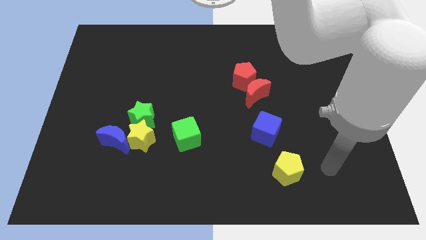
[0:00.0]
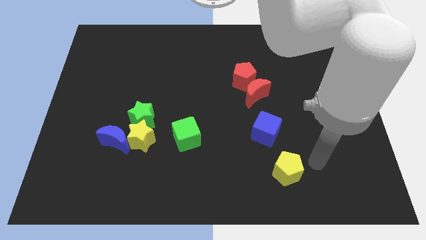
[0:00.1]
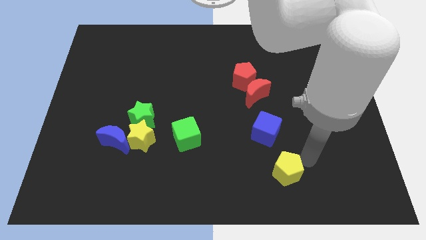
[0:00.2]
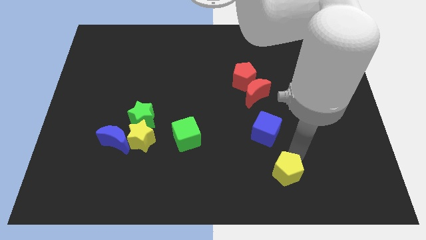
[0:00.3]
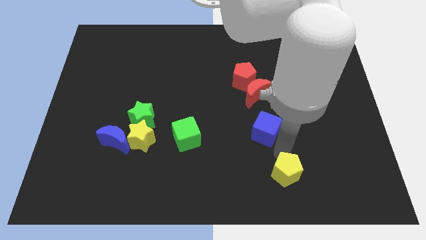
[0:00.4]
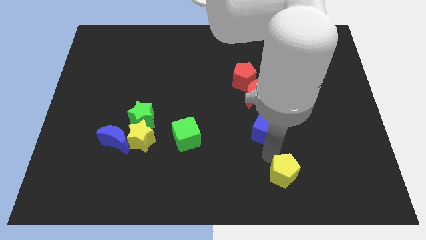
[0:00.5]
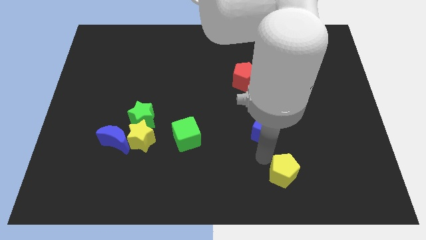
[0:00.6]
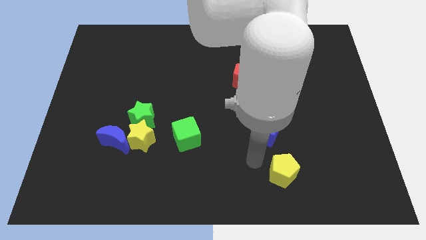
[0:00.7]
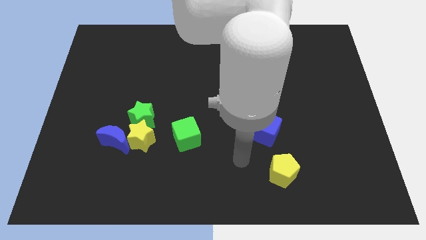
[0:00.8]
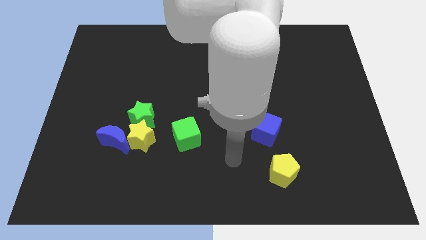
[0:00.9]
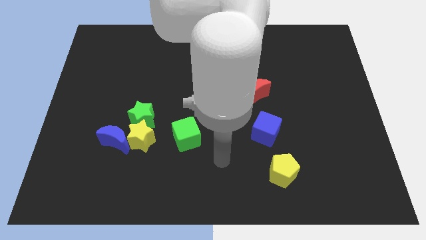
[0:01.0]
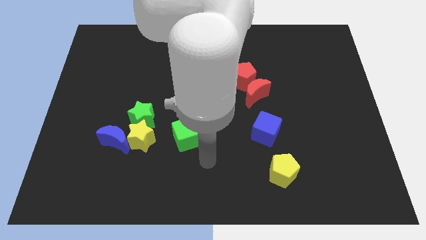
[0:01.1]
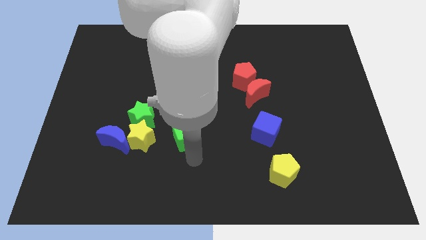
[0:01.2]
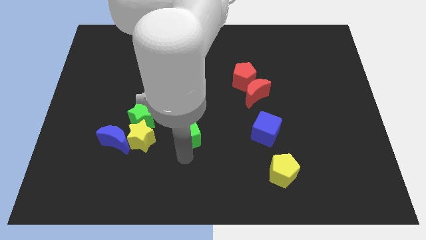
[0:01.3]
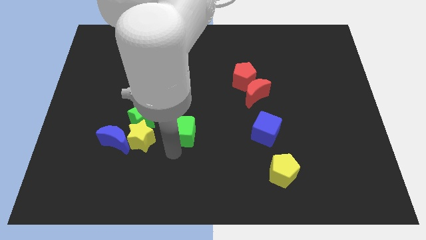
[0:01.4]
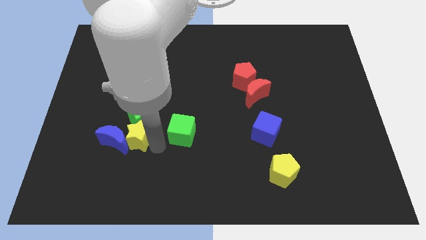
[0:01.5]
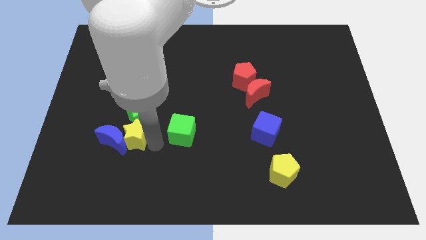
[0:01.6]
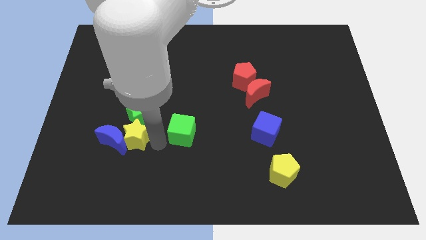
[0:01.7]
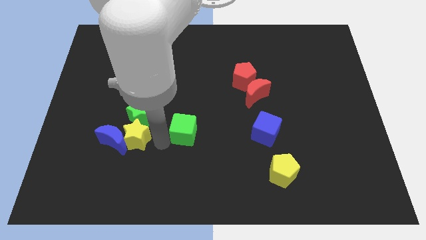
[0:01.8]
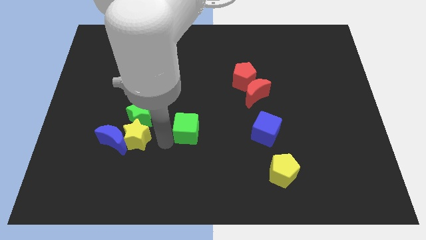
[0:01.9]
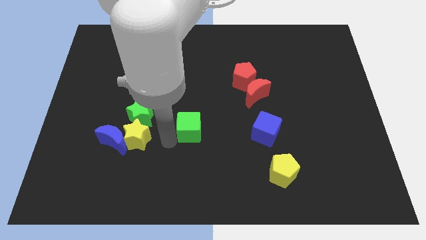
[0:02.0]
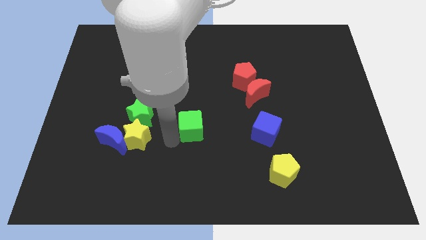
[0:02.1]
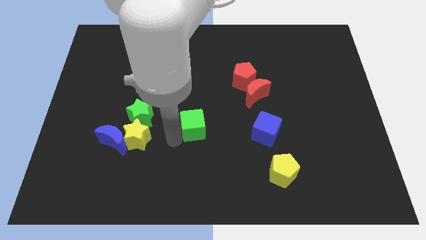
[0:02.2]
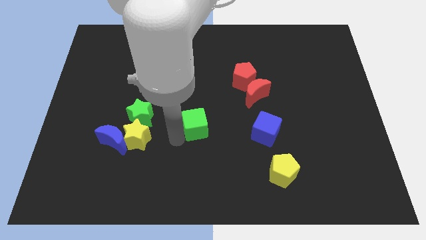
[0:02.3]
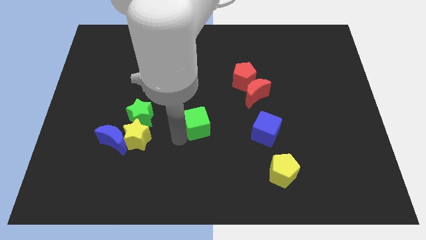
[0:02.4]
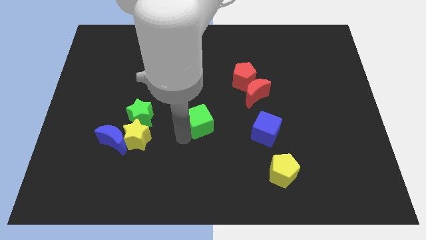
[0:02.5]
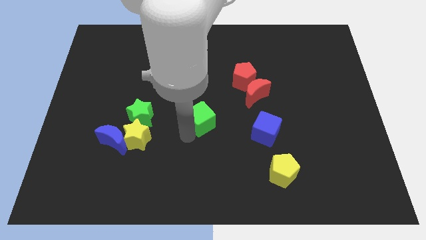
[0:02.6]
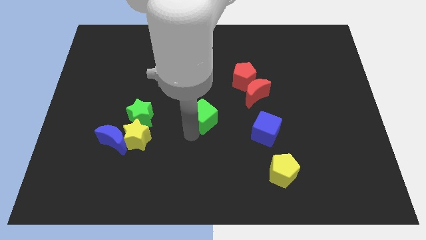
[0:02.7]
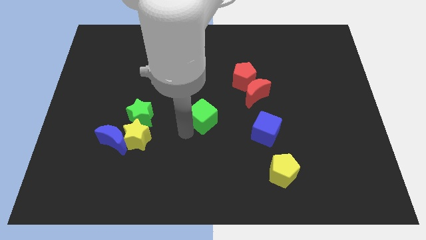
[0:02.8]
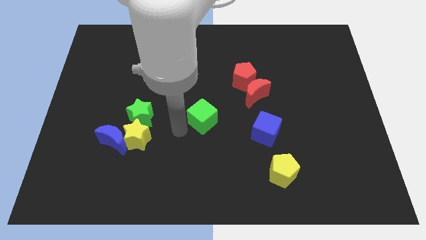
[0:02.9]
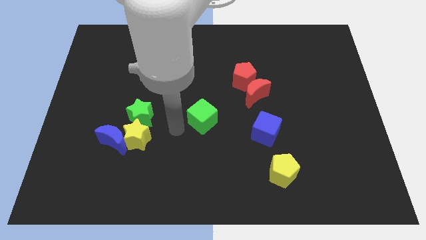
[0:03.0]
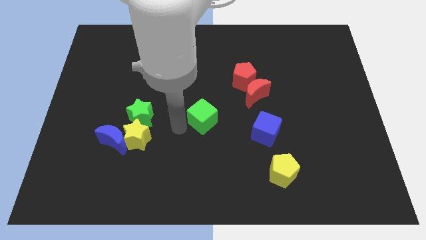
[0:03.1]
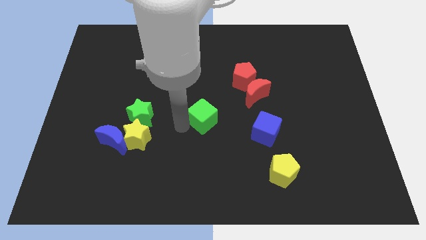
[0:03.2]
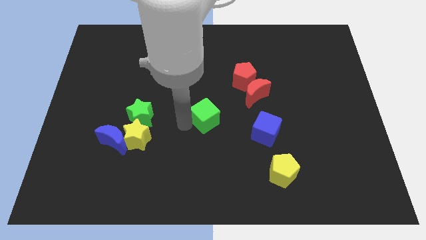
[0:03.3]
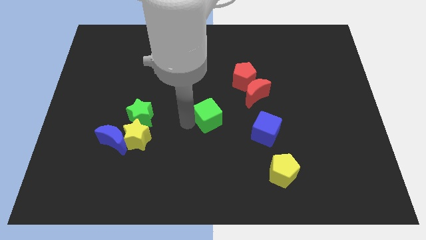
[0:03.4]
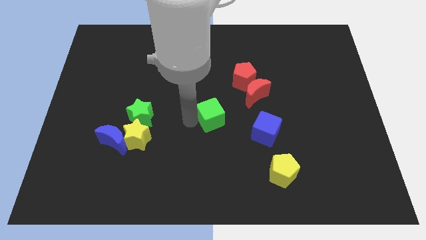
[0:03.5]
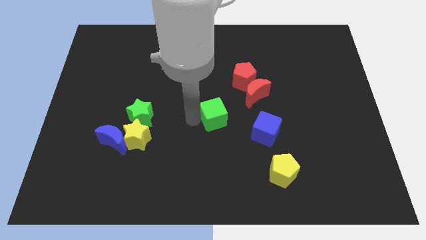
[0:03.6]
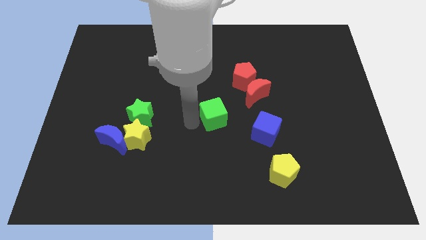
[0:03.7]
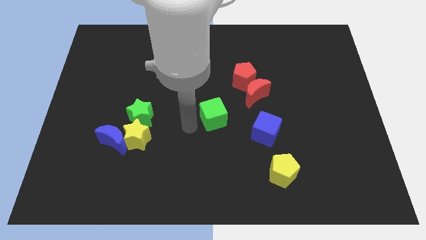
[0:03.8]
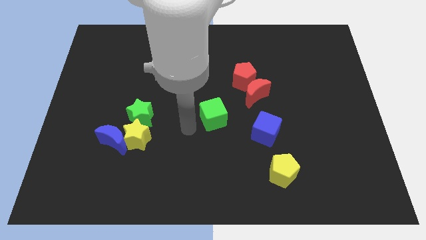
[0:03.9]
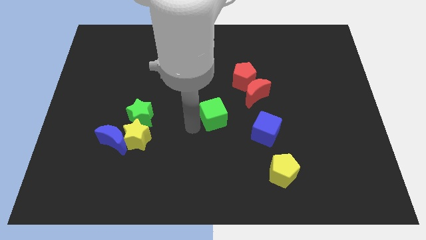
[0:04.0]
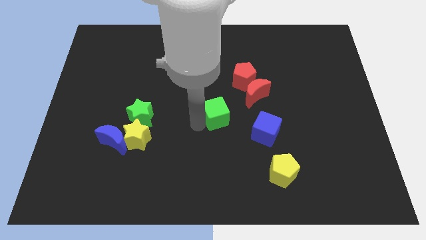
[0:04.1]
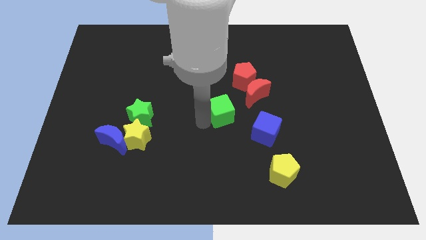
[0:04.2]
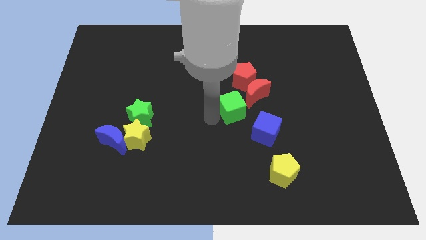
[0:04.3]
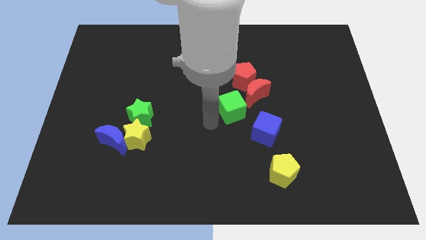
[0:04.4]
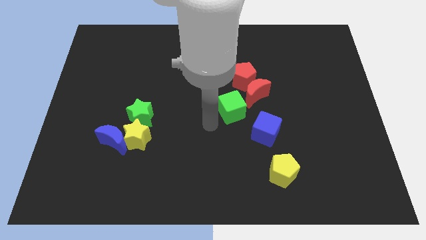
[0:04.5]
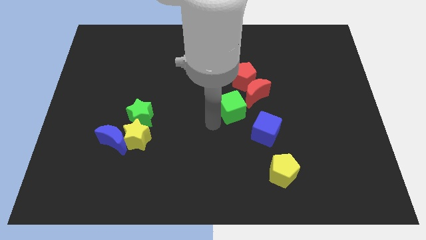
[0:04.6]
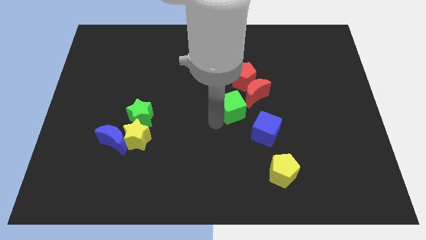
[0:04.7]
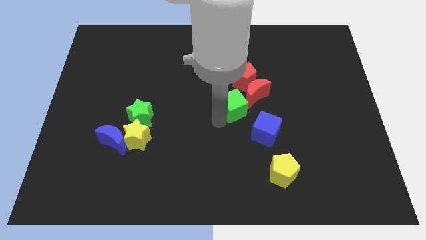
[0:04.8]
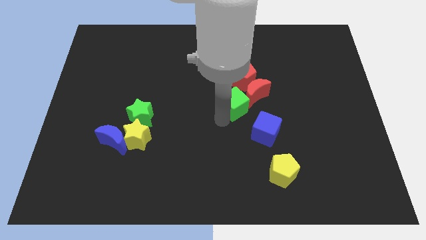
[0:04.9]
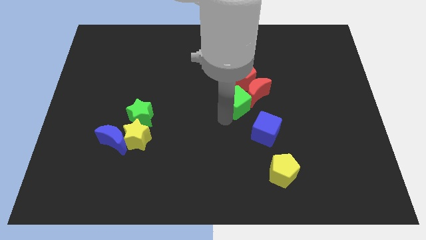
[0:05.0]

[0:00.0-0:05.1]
put the green cube towards the red moon

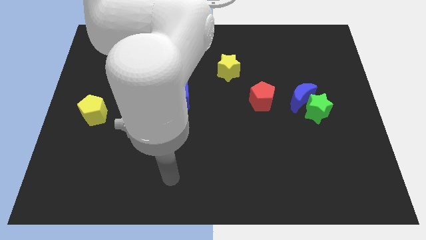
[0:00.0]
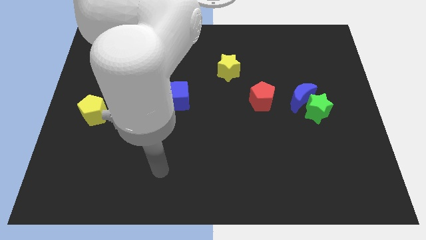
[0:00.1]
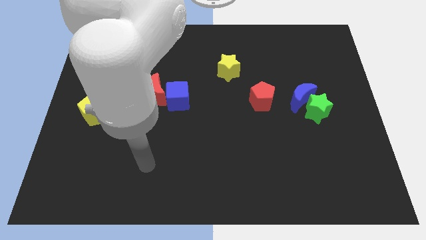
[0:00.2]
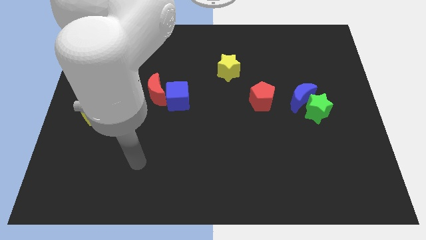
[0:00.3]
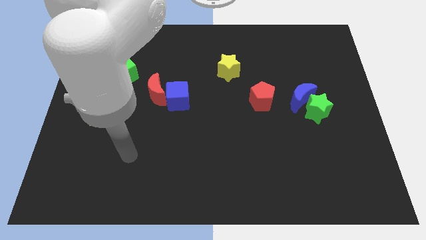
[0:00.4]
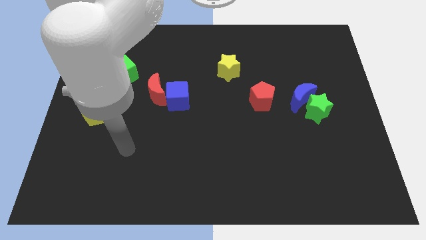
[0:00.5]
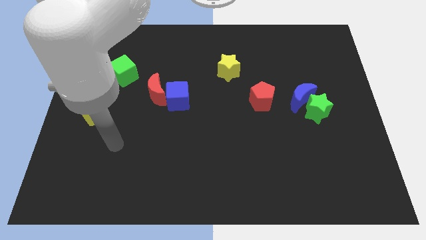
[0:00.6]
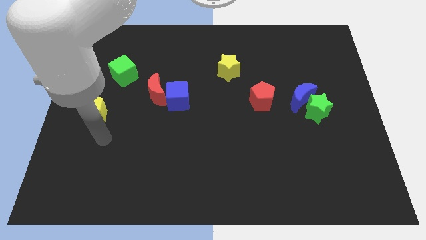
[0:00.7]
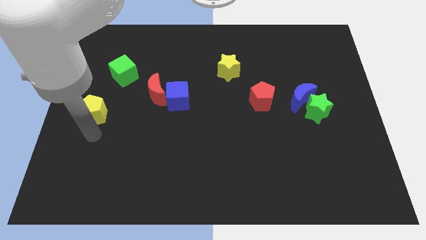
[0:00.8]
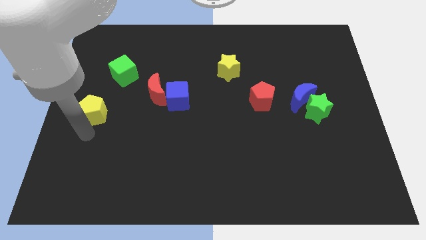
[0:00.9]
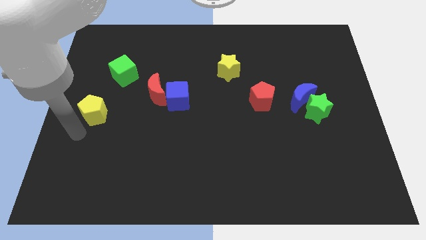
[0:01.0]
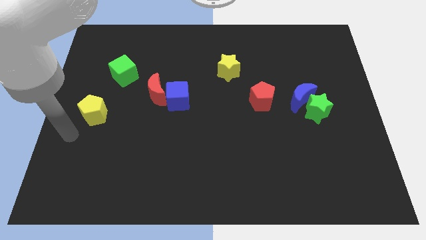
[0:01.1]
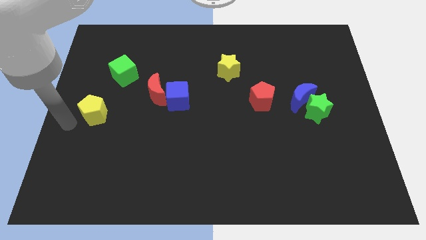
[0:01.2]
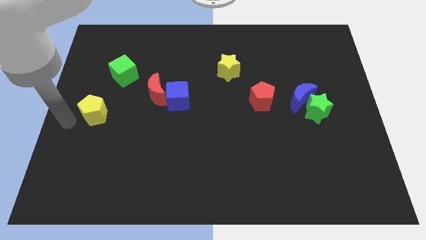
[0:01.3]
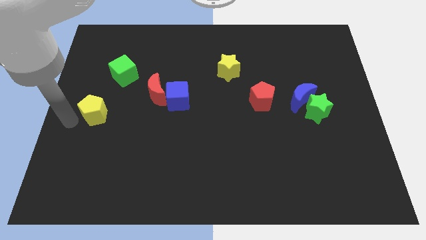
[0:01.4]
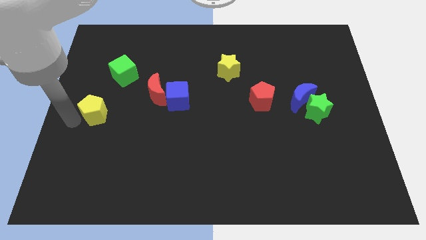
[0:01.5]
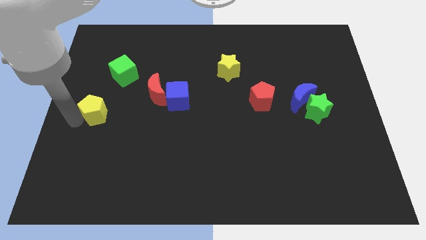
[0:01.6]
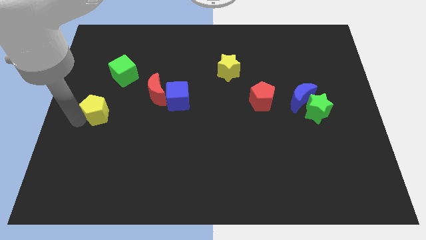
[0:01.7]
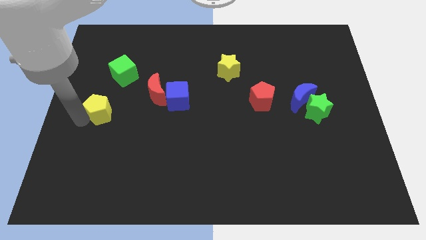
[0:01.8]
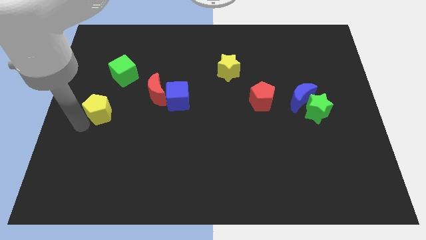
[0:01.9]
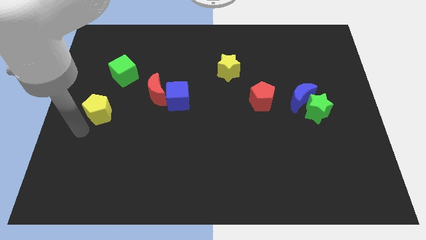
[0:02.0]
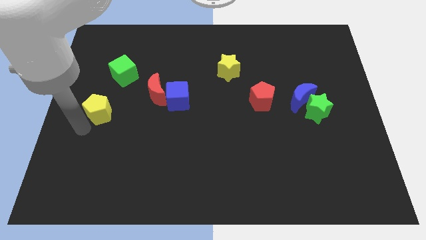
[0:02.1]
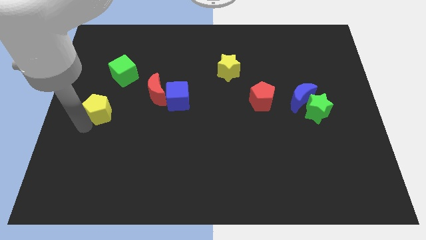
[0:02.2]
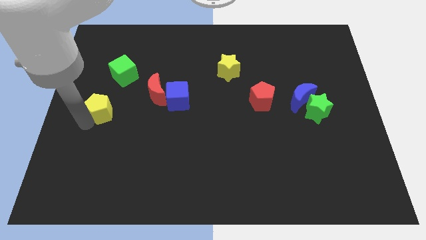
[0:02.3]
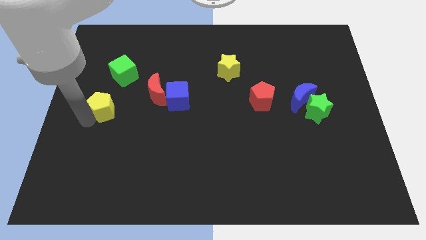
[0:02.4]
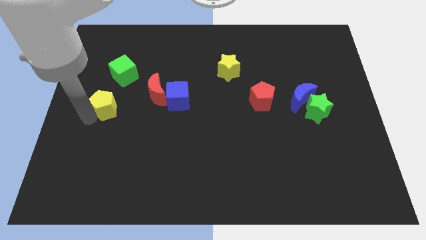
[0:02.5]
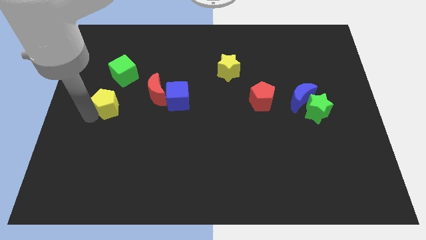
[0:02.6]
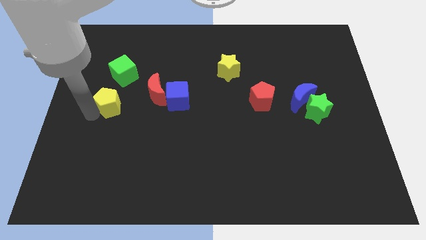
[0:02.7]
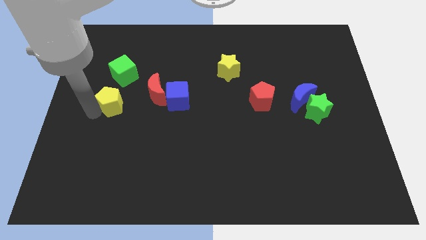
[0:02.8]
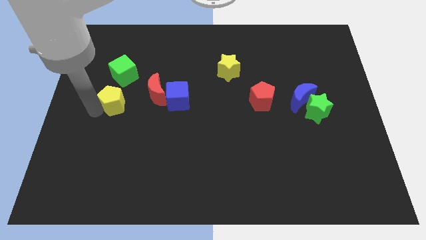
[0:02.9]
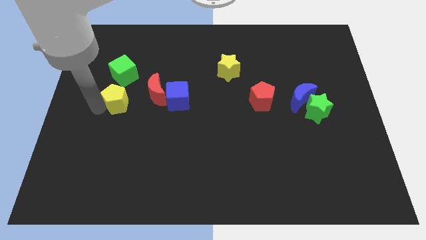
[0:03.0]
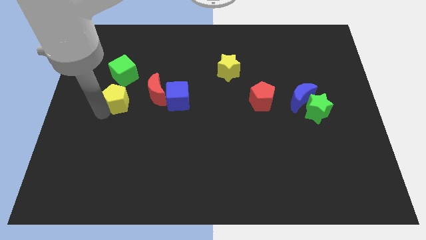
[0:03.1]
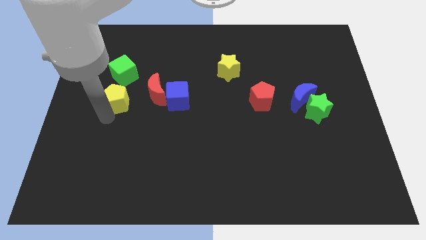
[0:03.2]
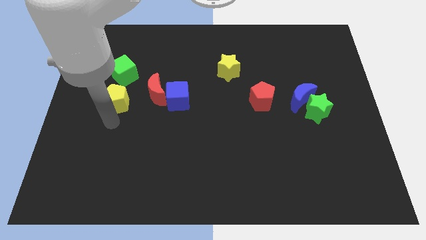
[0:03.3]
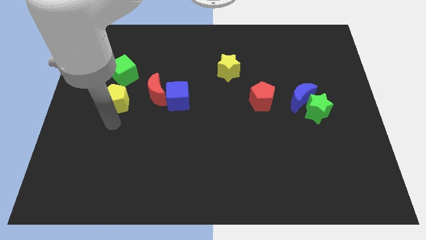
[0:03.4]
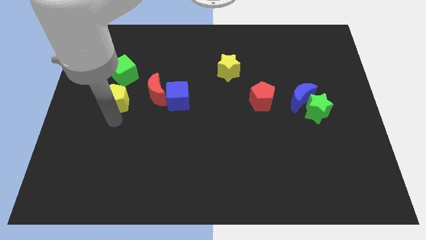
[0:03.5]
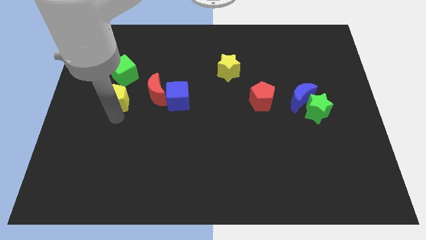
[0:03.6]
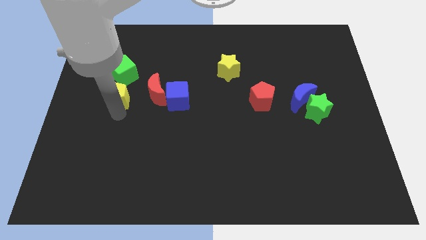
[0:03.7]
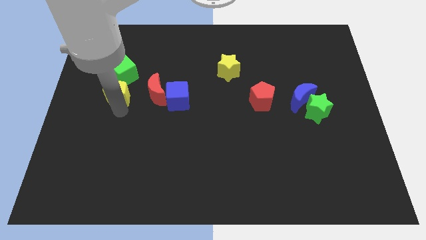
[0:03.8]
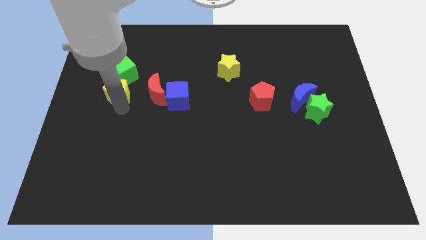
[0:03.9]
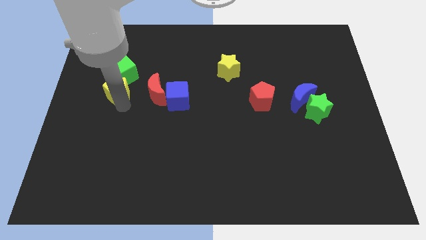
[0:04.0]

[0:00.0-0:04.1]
slide the yellow pentagon next to the green cube
